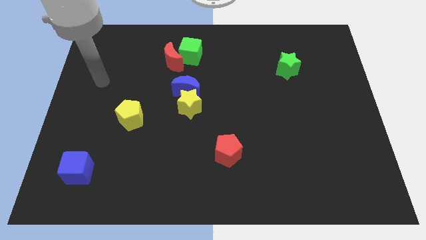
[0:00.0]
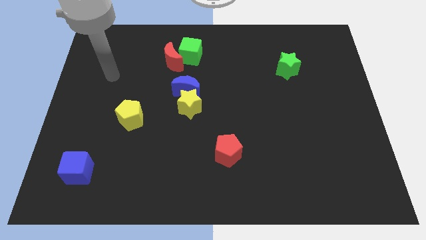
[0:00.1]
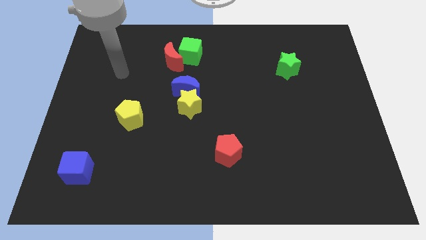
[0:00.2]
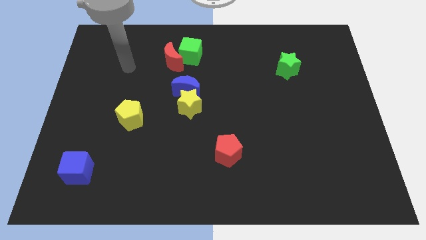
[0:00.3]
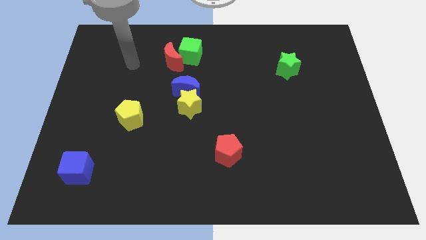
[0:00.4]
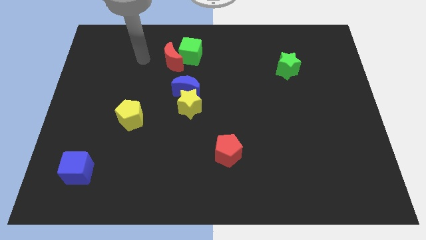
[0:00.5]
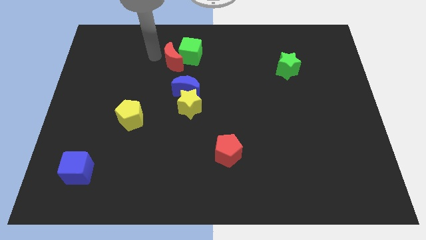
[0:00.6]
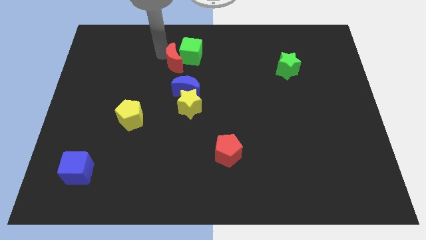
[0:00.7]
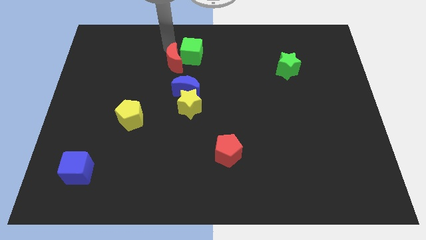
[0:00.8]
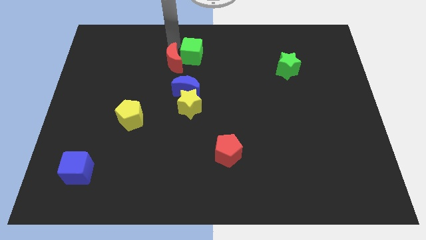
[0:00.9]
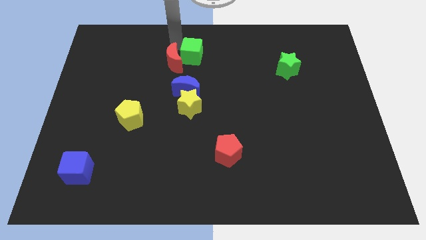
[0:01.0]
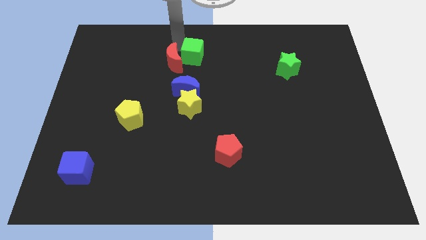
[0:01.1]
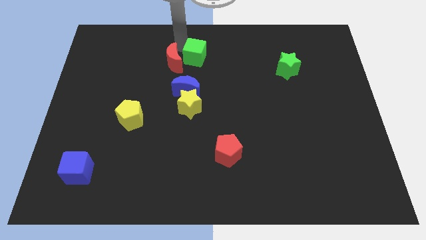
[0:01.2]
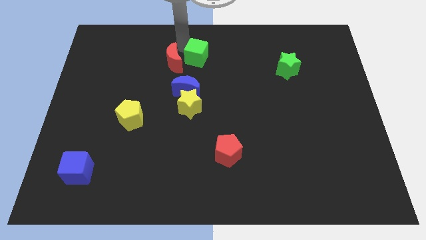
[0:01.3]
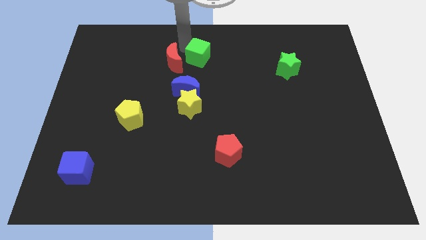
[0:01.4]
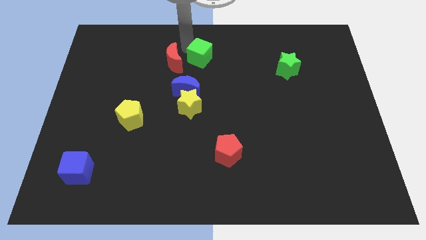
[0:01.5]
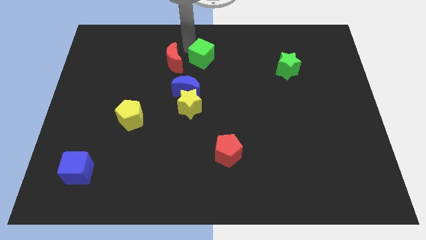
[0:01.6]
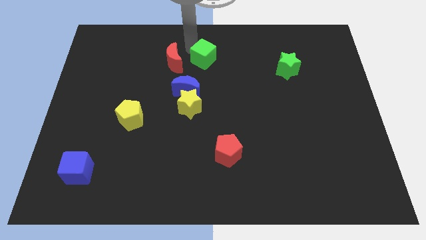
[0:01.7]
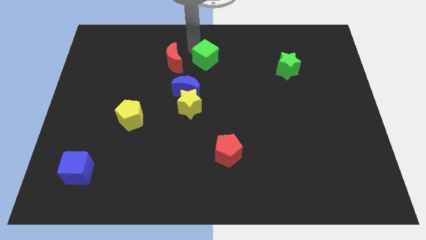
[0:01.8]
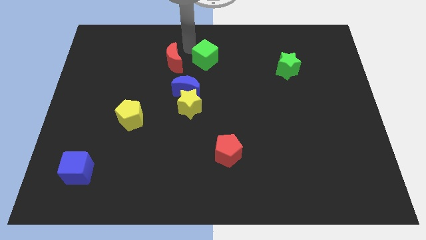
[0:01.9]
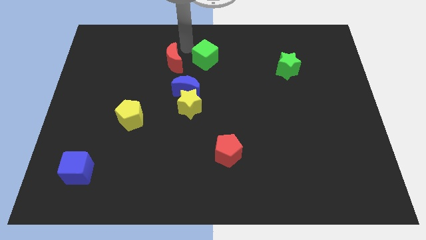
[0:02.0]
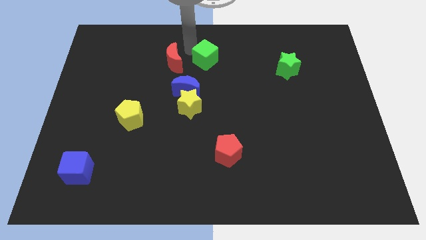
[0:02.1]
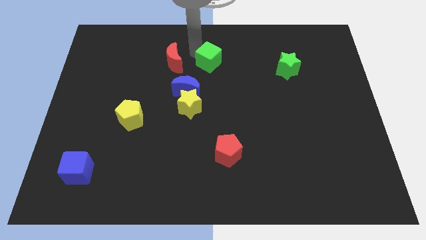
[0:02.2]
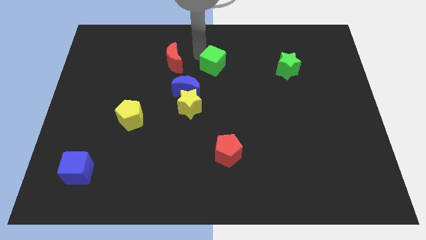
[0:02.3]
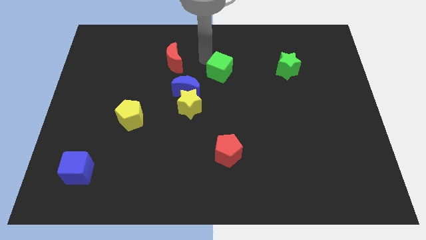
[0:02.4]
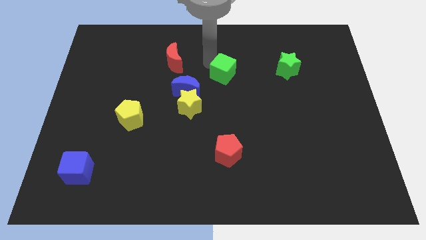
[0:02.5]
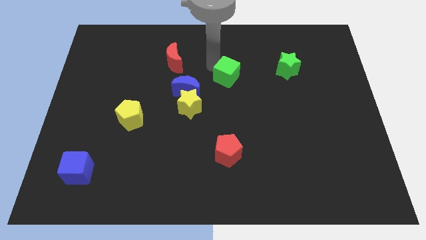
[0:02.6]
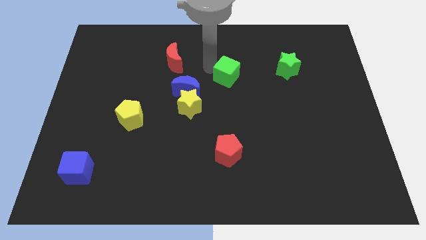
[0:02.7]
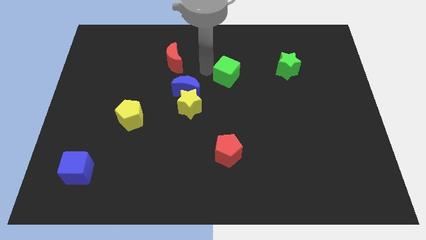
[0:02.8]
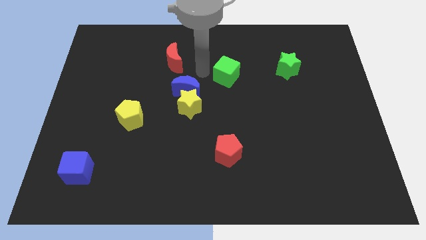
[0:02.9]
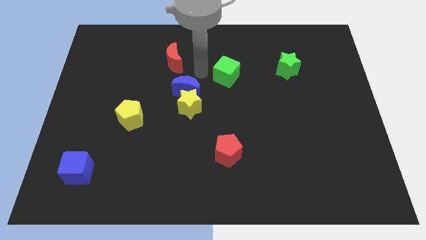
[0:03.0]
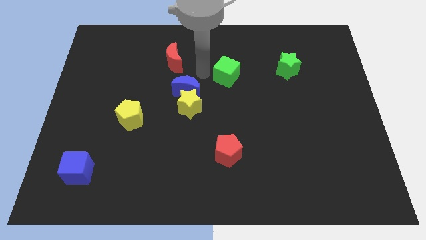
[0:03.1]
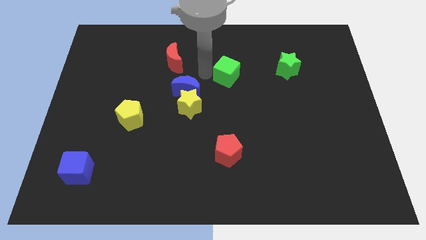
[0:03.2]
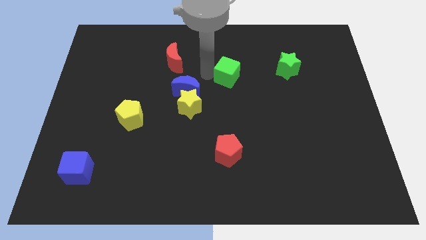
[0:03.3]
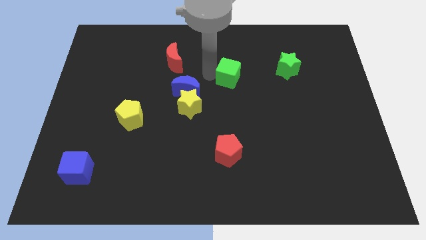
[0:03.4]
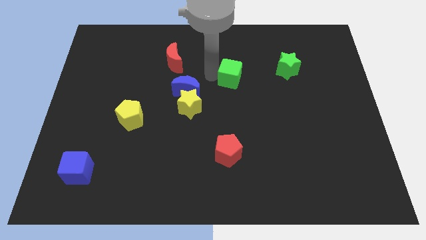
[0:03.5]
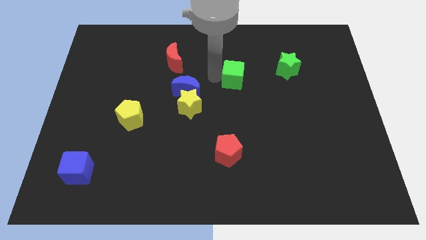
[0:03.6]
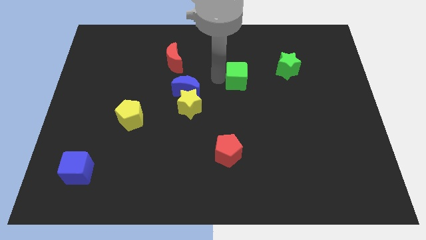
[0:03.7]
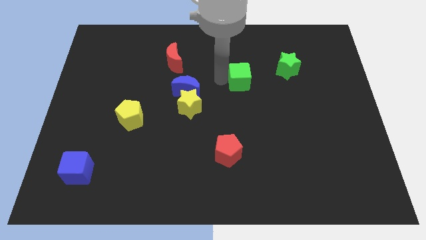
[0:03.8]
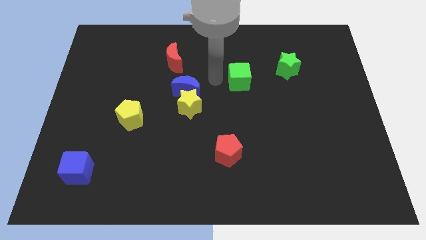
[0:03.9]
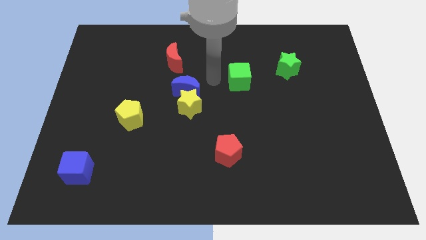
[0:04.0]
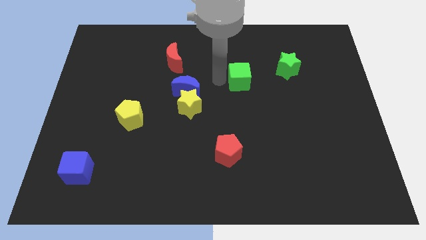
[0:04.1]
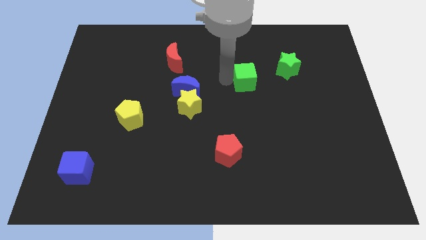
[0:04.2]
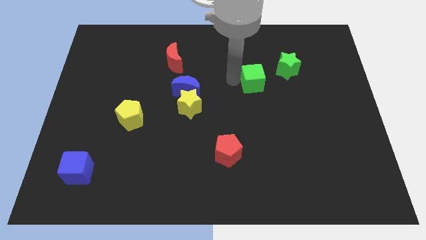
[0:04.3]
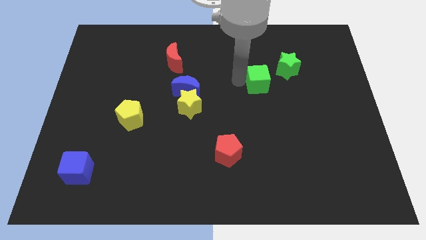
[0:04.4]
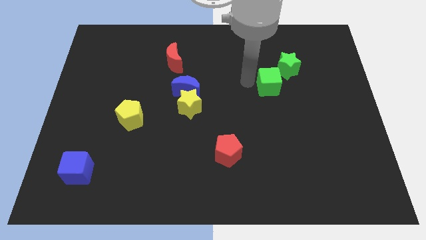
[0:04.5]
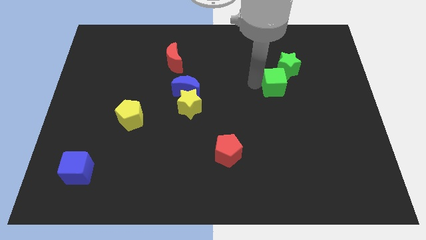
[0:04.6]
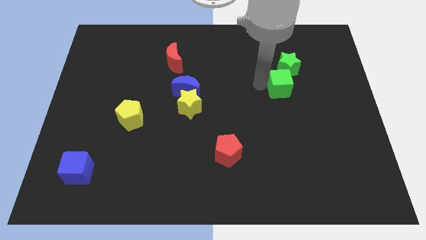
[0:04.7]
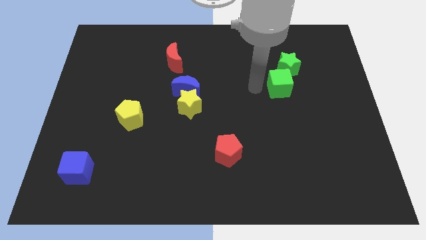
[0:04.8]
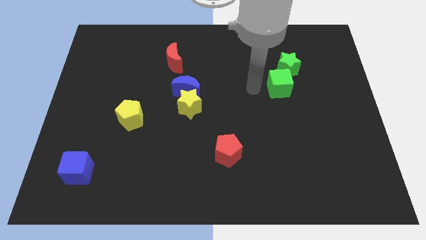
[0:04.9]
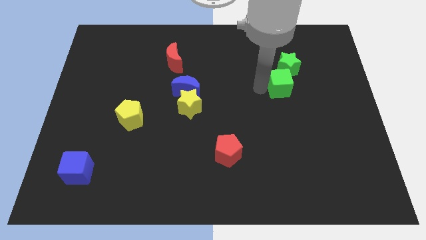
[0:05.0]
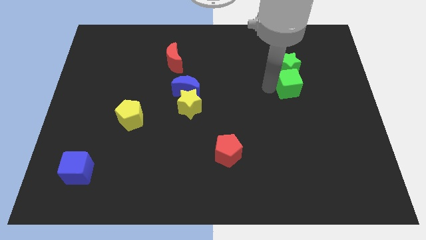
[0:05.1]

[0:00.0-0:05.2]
put the green cube diagonally down and to the right of the green star

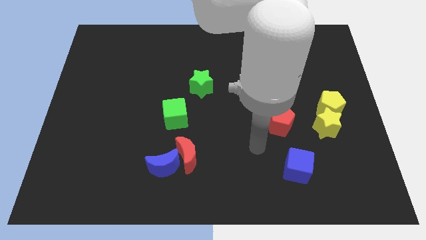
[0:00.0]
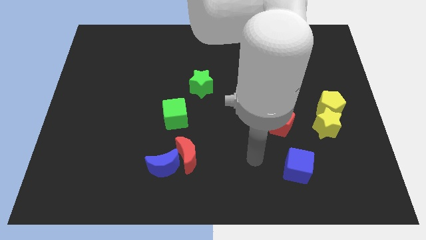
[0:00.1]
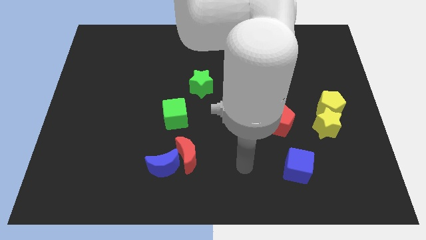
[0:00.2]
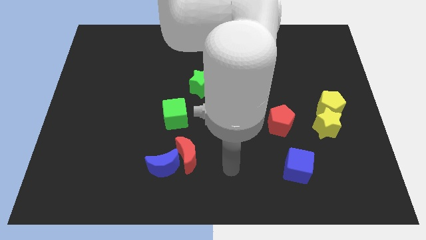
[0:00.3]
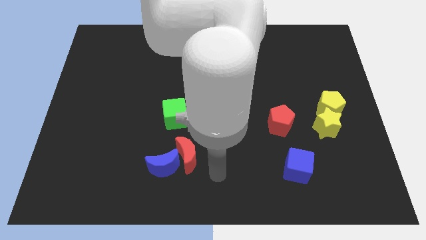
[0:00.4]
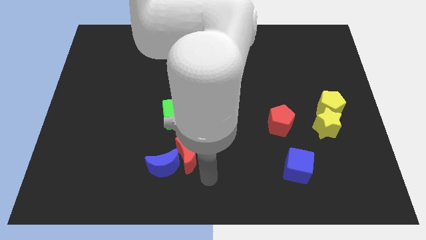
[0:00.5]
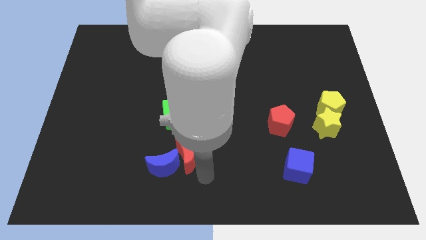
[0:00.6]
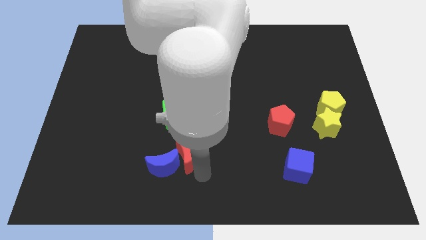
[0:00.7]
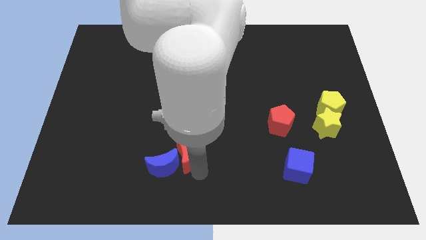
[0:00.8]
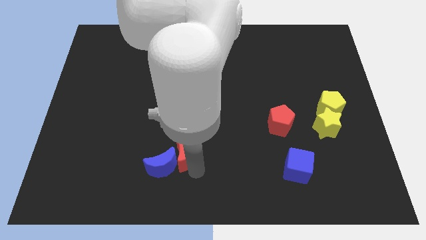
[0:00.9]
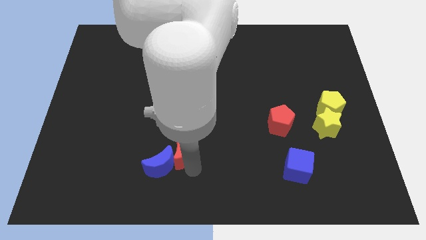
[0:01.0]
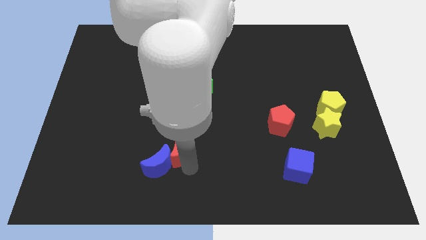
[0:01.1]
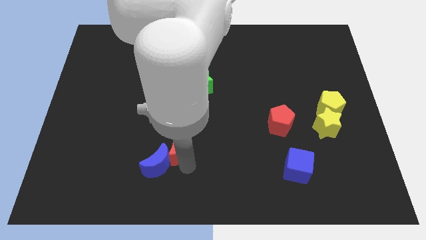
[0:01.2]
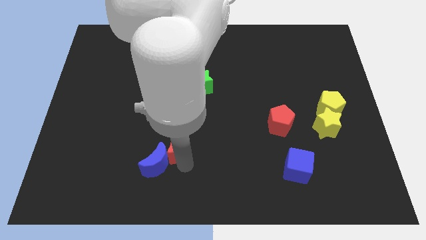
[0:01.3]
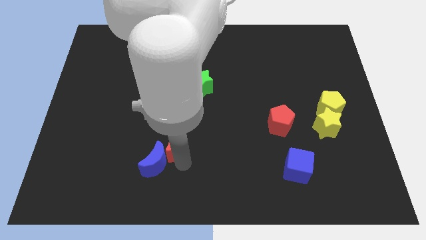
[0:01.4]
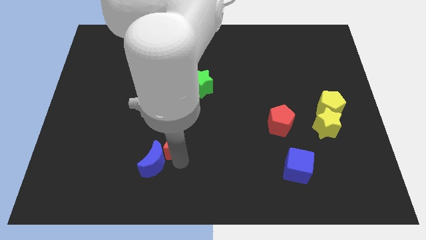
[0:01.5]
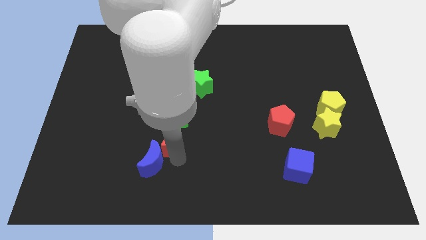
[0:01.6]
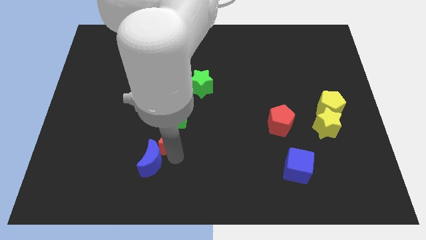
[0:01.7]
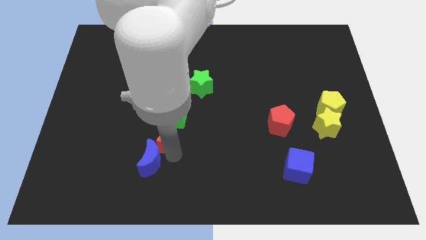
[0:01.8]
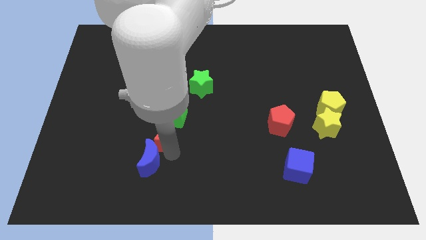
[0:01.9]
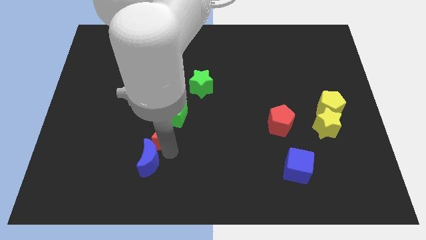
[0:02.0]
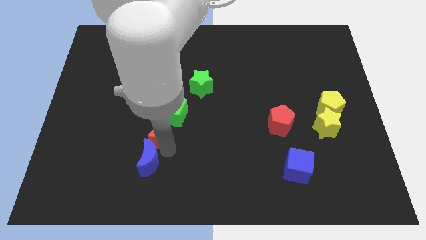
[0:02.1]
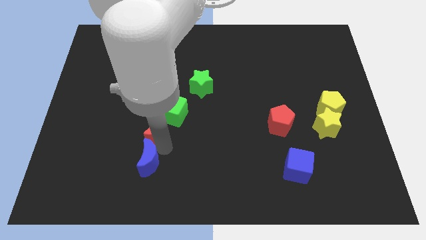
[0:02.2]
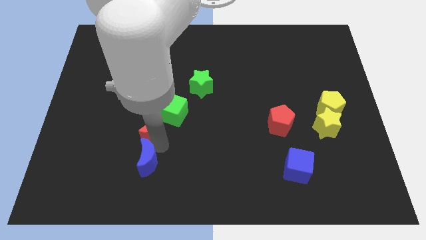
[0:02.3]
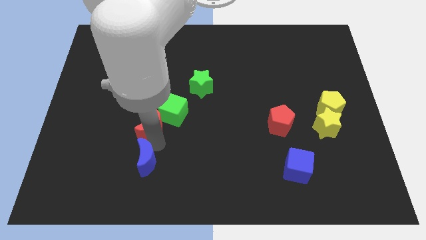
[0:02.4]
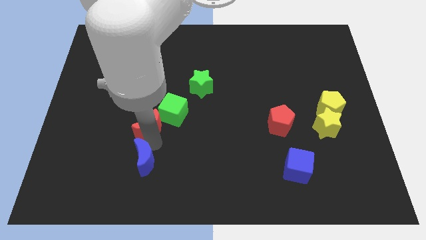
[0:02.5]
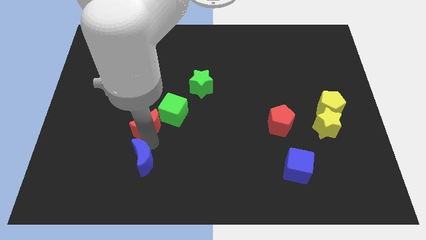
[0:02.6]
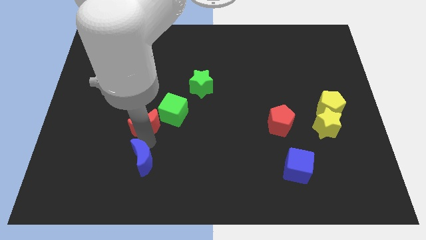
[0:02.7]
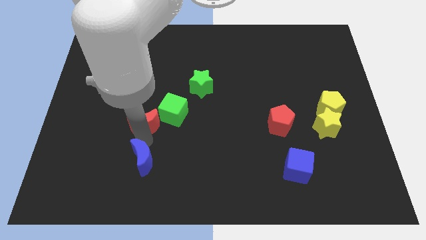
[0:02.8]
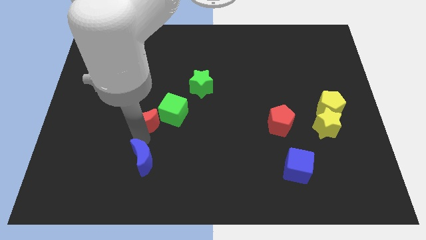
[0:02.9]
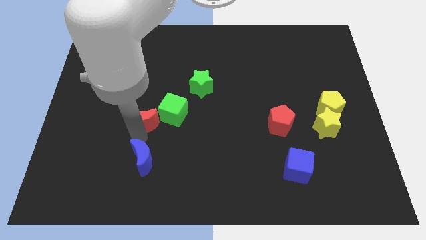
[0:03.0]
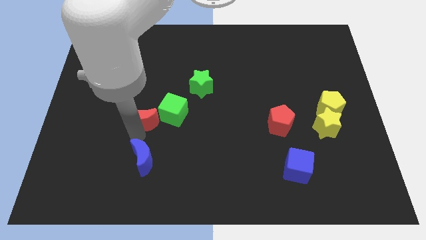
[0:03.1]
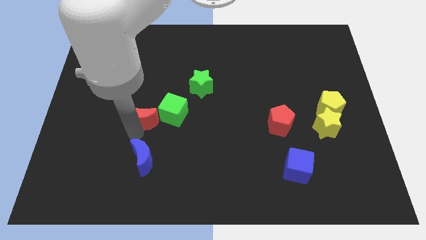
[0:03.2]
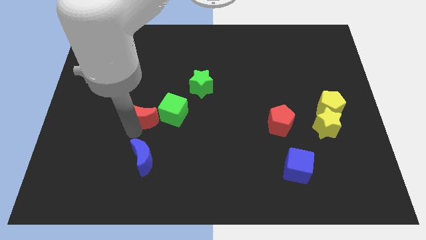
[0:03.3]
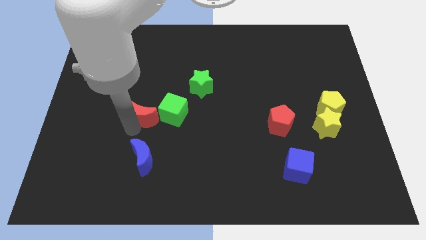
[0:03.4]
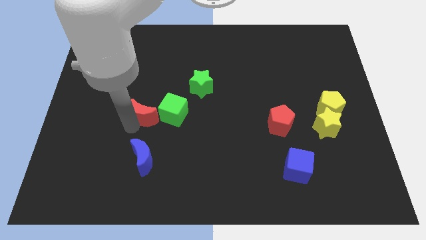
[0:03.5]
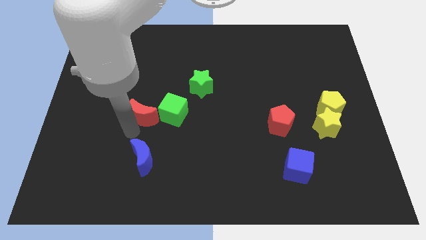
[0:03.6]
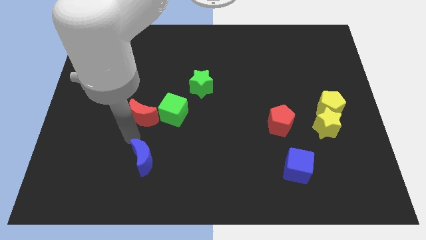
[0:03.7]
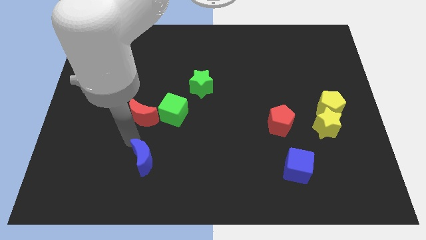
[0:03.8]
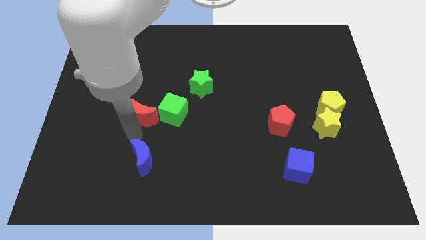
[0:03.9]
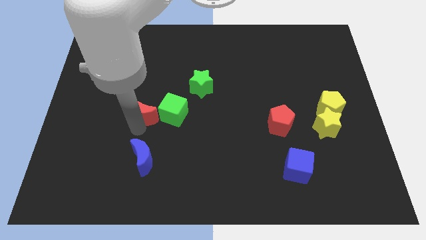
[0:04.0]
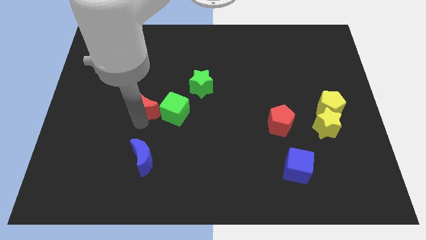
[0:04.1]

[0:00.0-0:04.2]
push the red moon to the top left of the green cube
